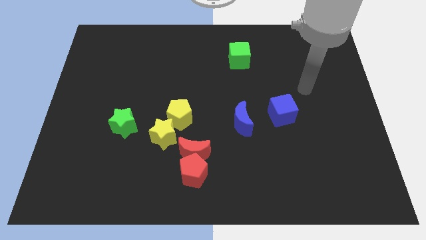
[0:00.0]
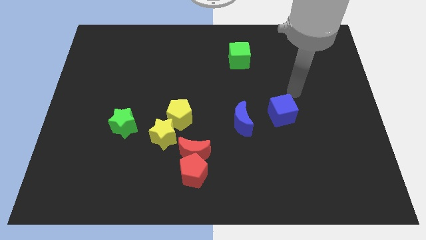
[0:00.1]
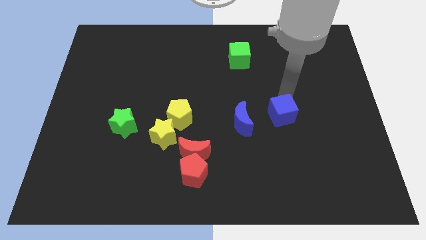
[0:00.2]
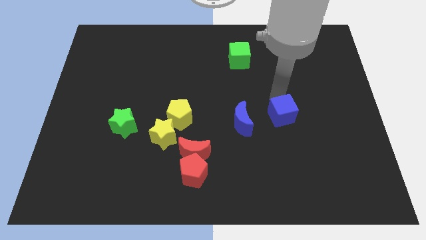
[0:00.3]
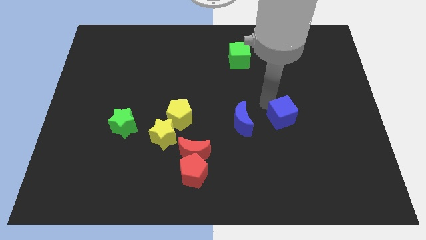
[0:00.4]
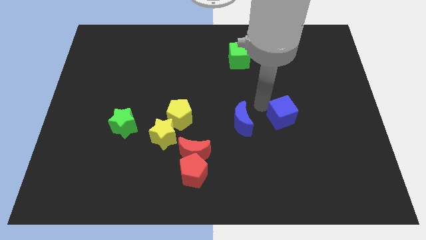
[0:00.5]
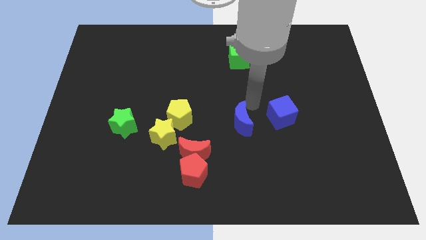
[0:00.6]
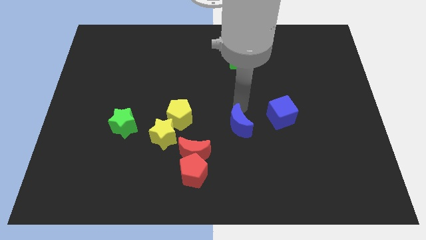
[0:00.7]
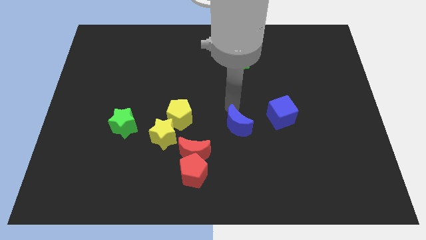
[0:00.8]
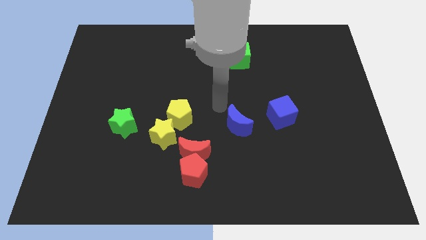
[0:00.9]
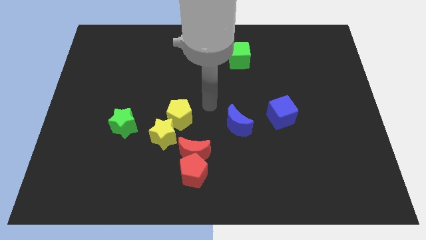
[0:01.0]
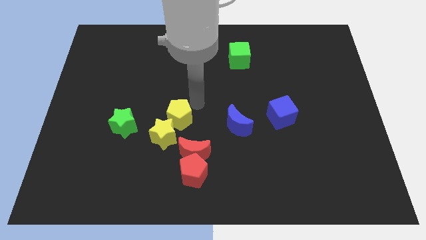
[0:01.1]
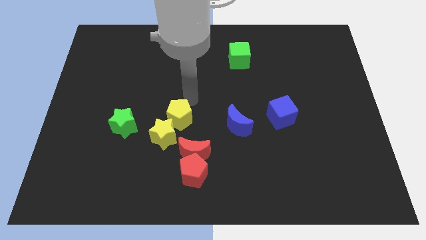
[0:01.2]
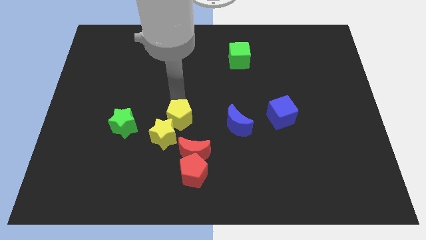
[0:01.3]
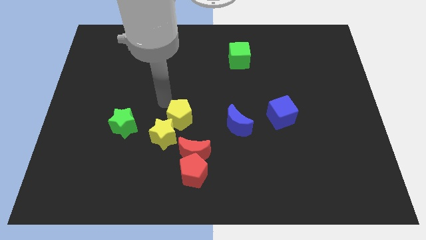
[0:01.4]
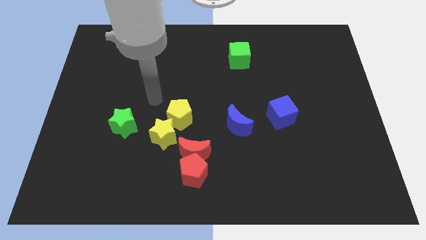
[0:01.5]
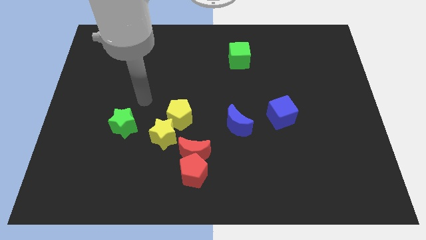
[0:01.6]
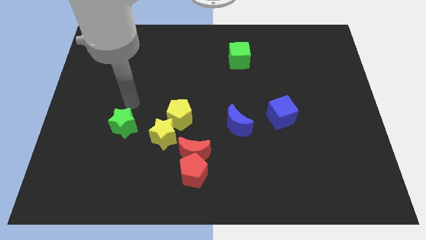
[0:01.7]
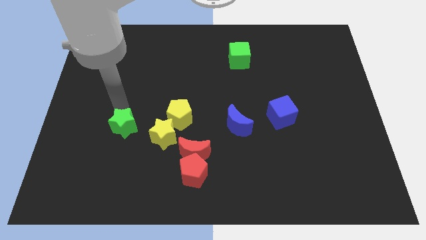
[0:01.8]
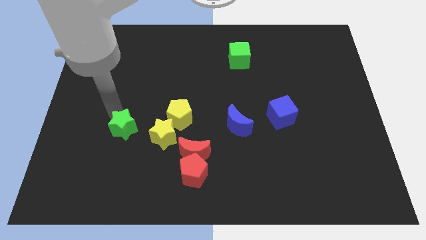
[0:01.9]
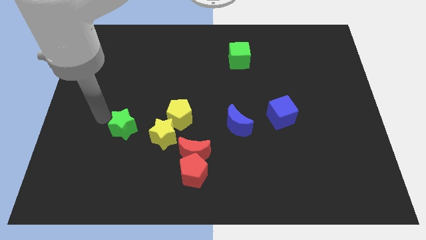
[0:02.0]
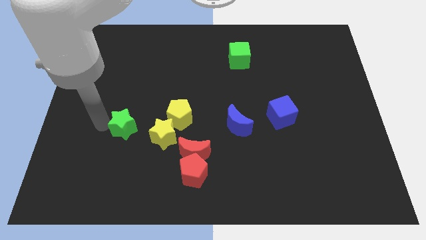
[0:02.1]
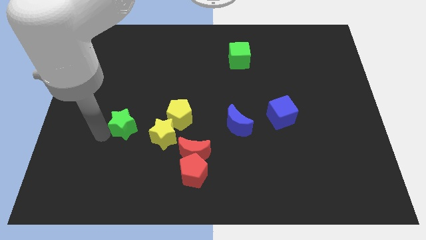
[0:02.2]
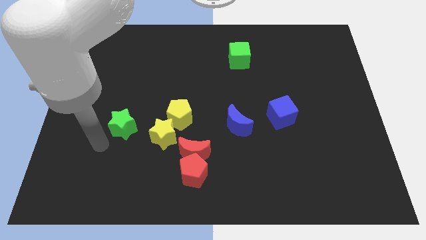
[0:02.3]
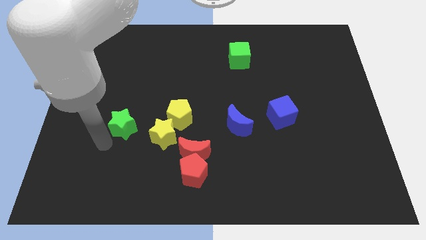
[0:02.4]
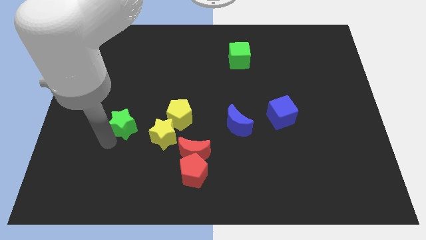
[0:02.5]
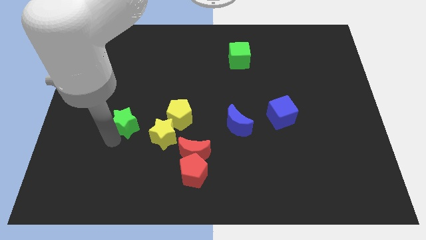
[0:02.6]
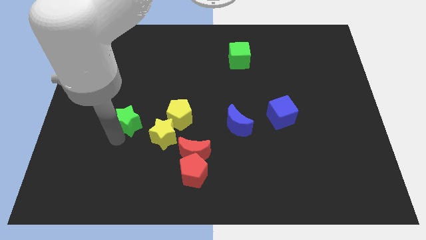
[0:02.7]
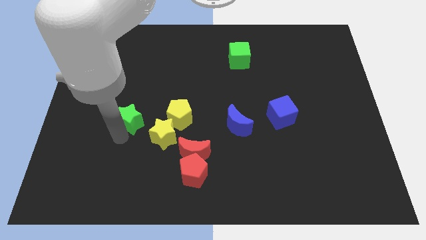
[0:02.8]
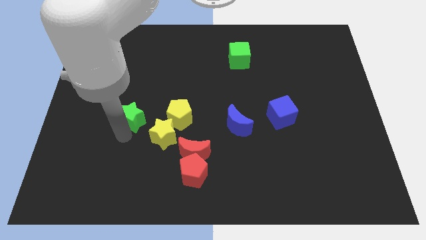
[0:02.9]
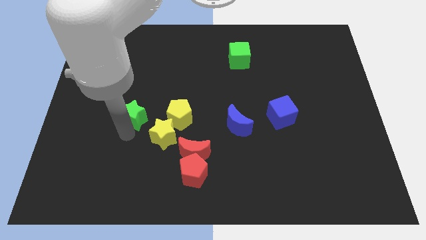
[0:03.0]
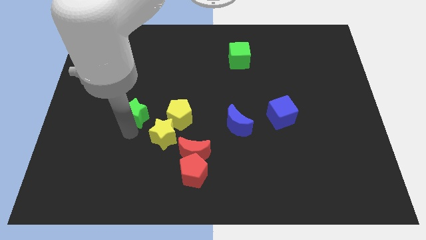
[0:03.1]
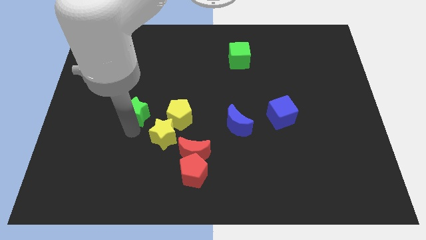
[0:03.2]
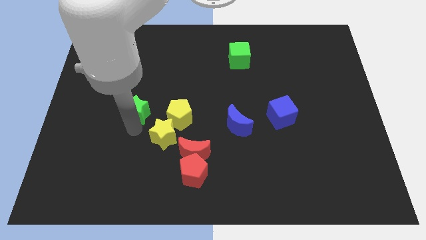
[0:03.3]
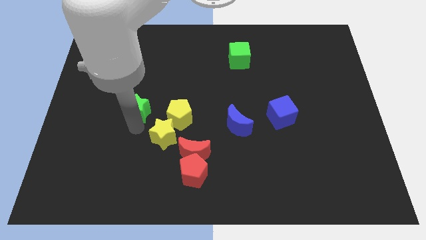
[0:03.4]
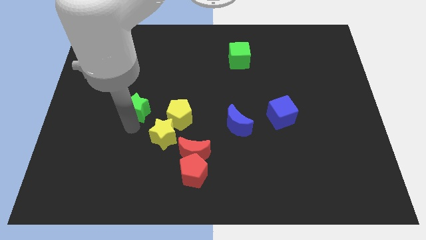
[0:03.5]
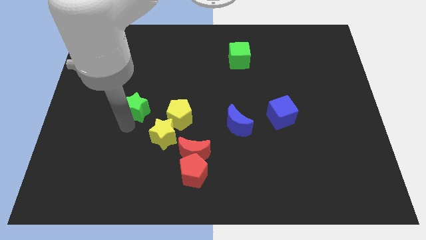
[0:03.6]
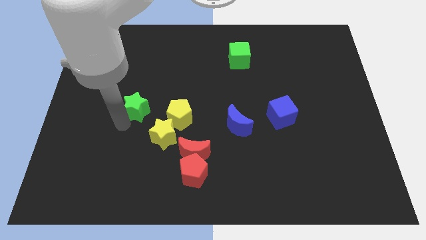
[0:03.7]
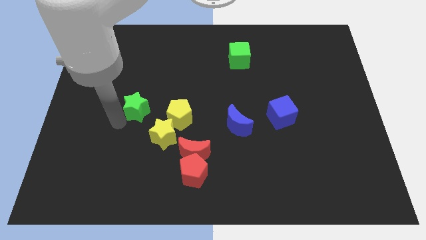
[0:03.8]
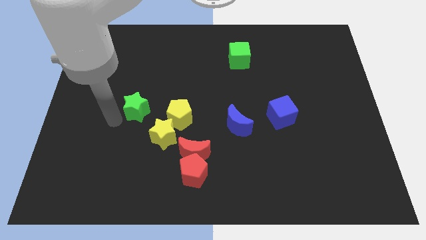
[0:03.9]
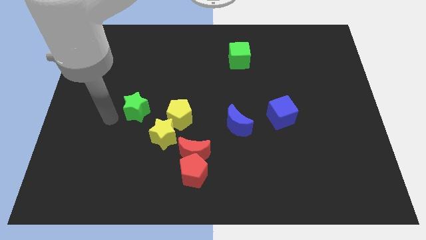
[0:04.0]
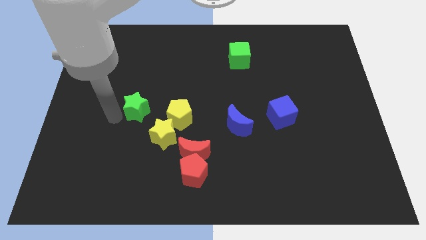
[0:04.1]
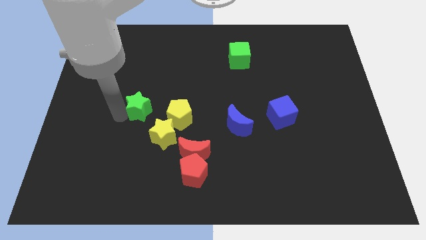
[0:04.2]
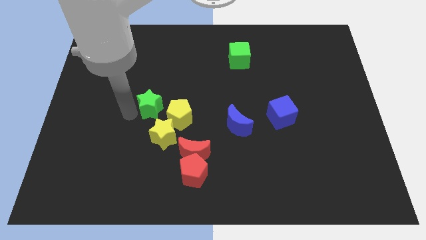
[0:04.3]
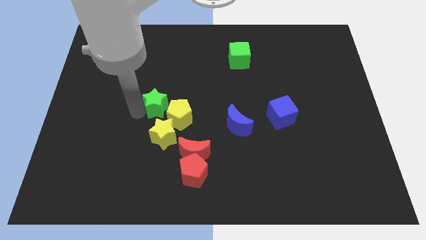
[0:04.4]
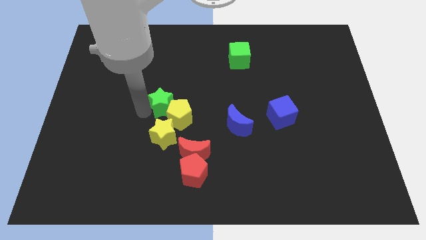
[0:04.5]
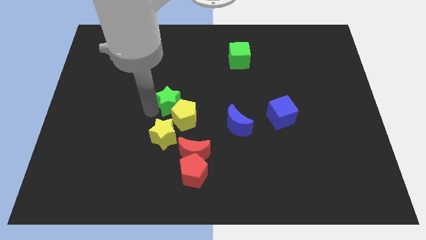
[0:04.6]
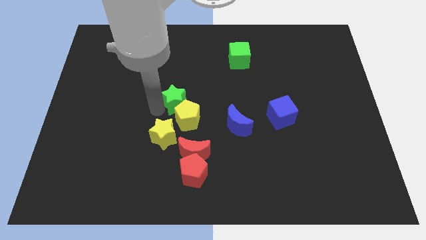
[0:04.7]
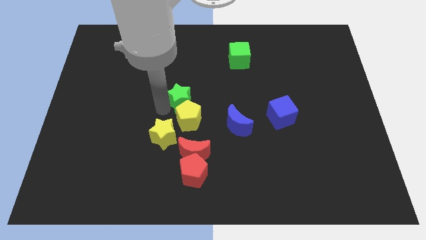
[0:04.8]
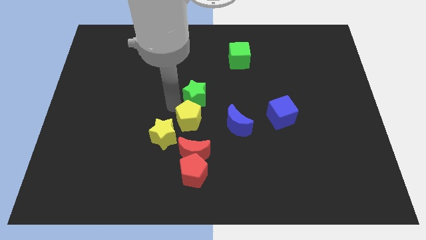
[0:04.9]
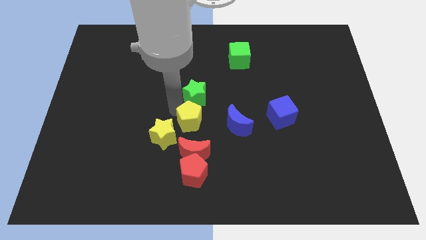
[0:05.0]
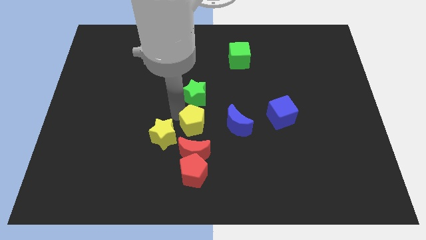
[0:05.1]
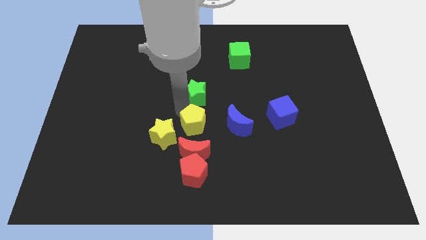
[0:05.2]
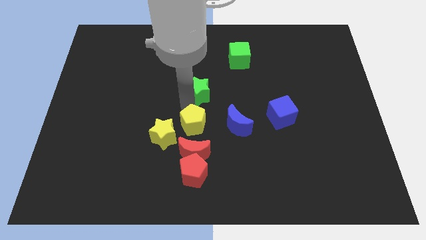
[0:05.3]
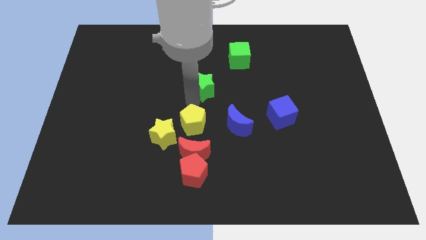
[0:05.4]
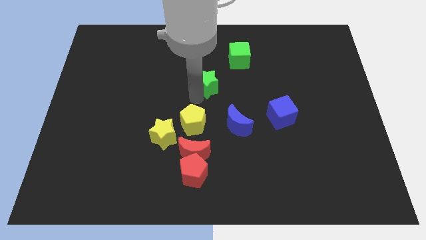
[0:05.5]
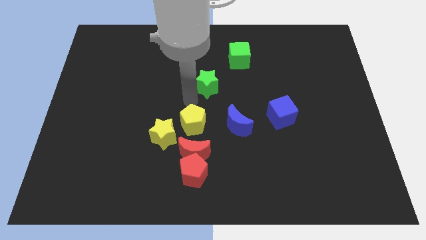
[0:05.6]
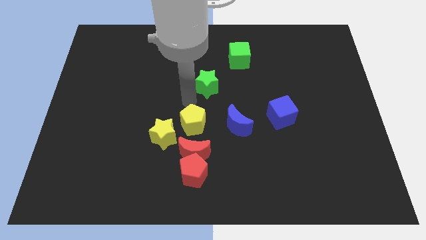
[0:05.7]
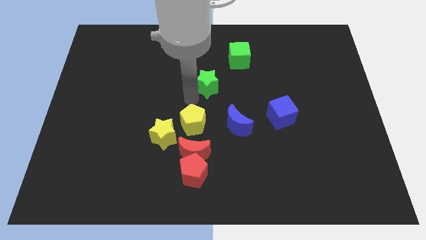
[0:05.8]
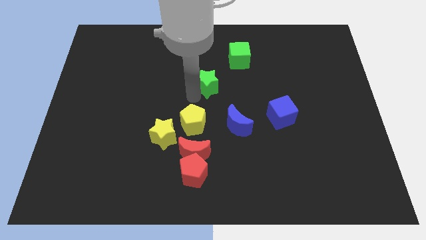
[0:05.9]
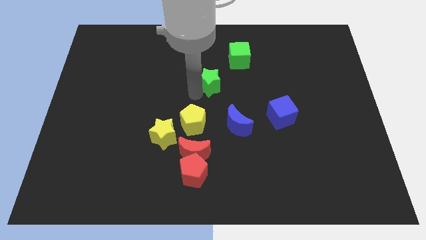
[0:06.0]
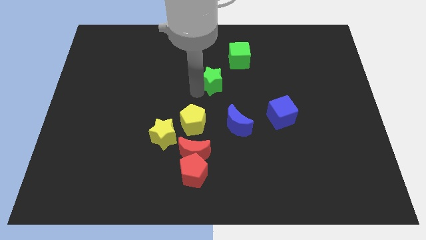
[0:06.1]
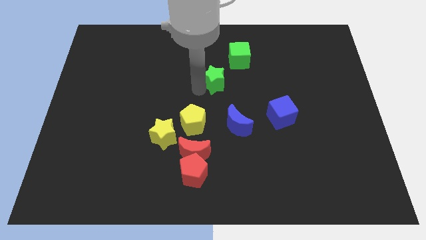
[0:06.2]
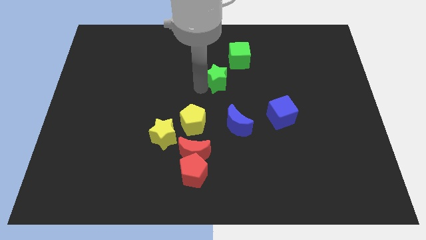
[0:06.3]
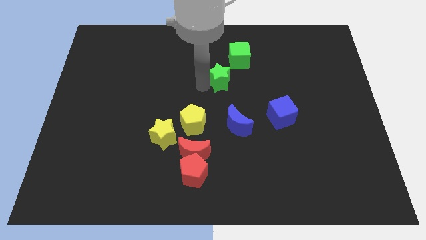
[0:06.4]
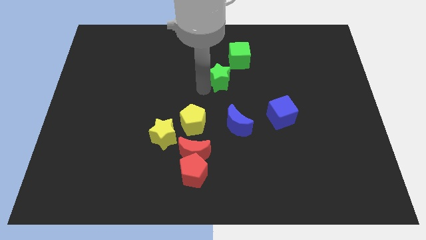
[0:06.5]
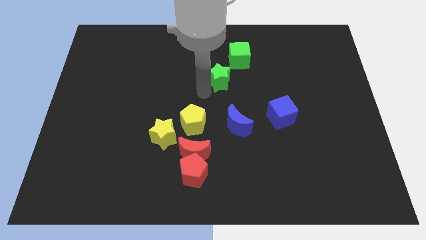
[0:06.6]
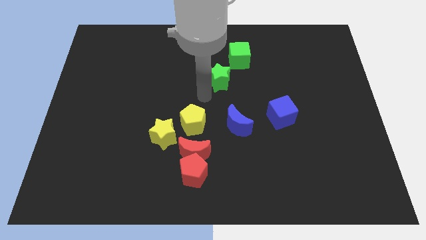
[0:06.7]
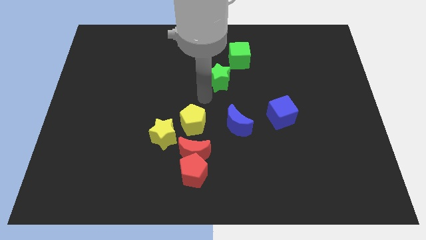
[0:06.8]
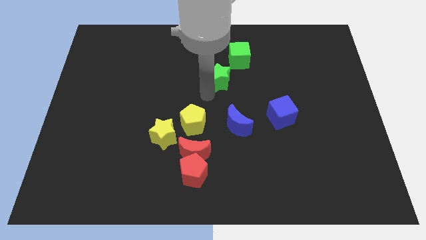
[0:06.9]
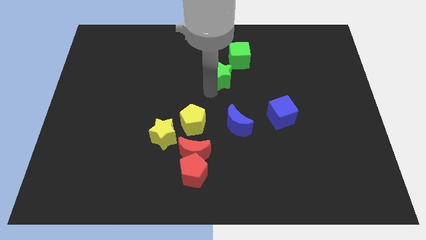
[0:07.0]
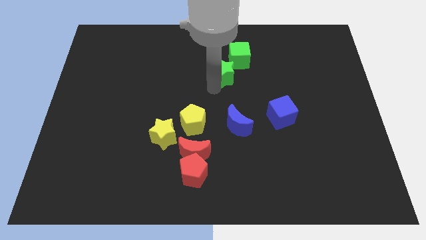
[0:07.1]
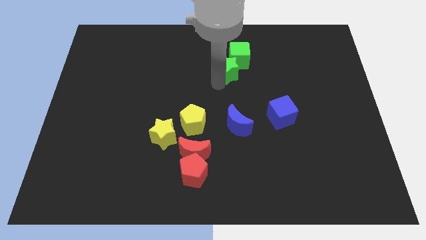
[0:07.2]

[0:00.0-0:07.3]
push the green star close to the green cube

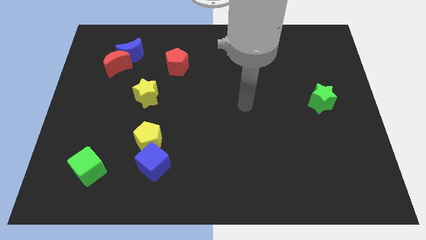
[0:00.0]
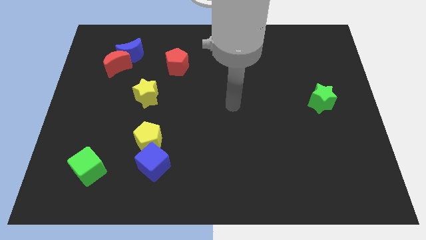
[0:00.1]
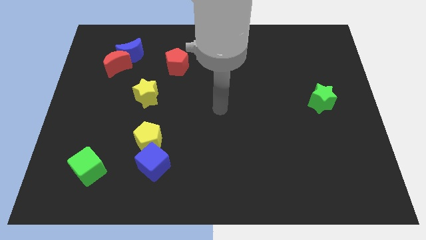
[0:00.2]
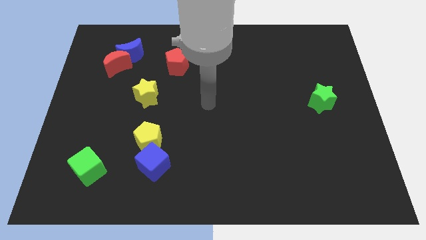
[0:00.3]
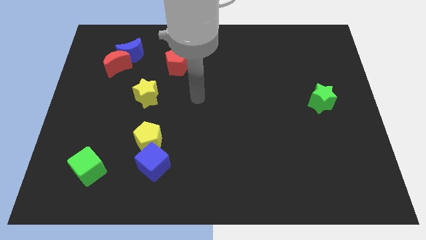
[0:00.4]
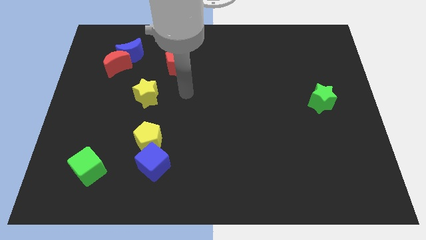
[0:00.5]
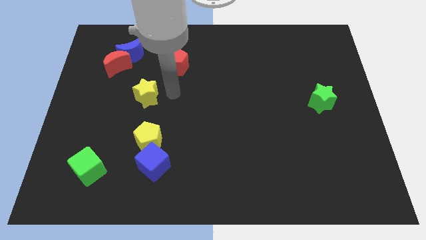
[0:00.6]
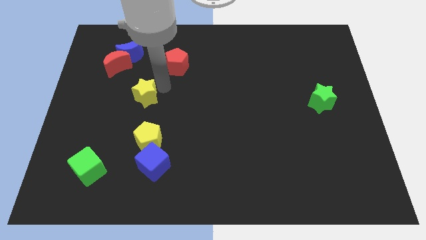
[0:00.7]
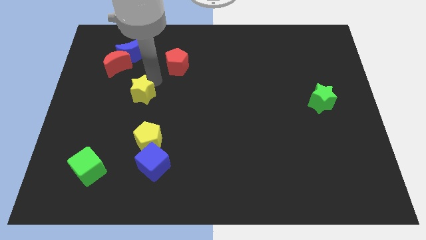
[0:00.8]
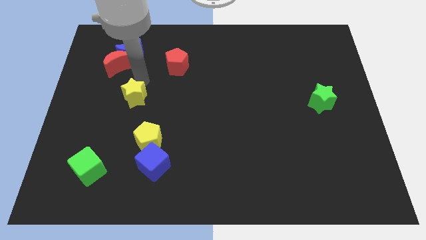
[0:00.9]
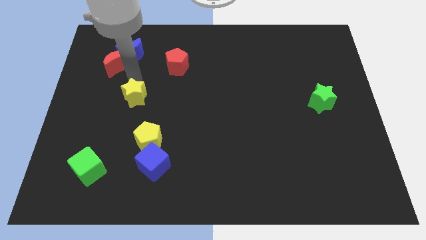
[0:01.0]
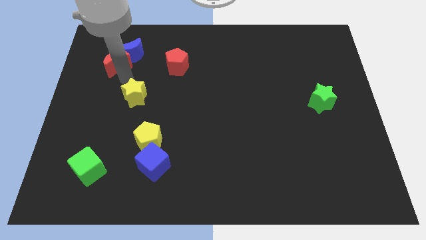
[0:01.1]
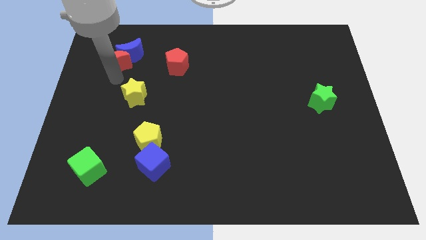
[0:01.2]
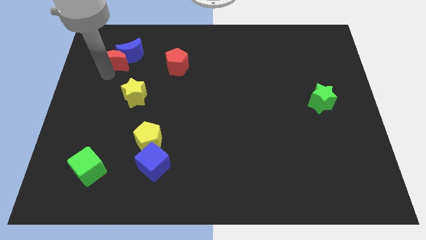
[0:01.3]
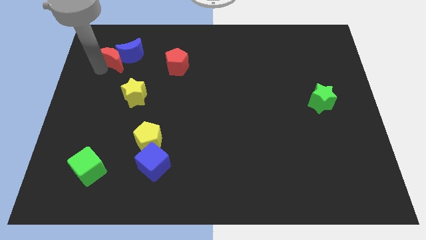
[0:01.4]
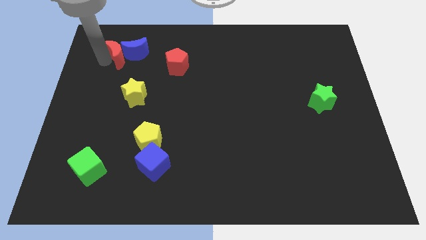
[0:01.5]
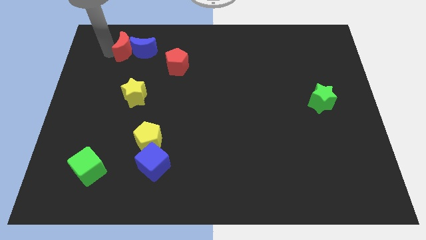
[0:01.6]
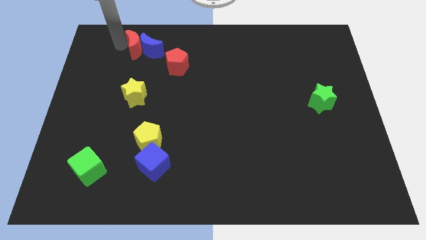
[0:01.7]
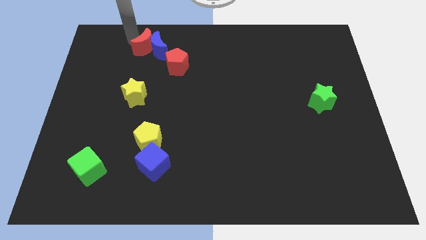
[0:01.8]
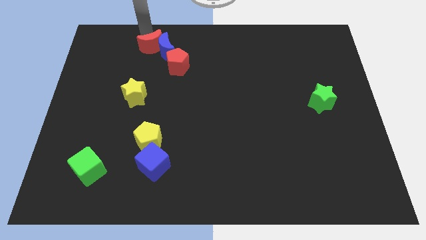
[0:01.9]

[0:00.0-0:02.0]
put the blue moon next to the red pentagon
